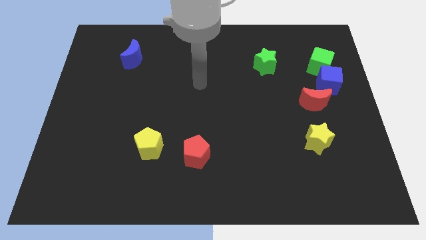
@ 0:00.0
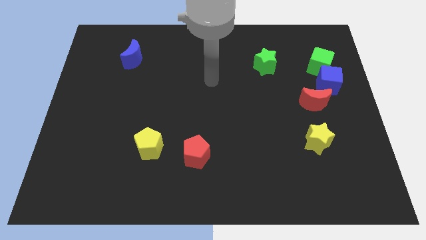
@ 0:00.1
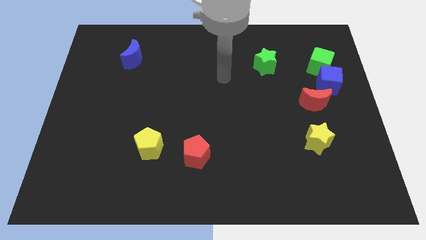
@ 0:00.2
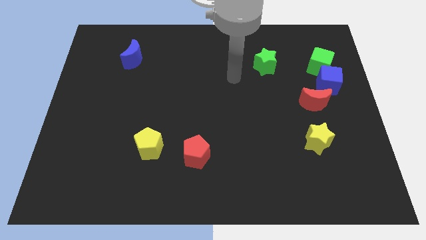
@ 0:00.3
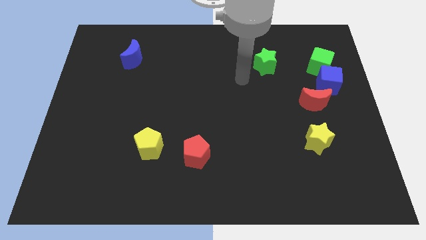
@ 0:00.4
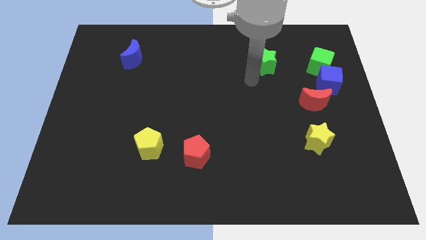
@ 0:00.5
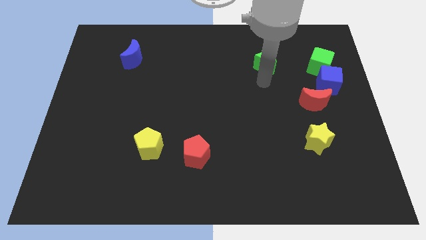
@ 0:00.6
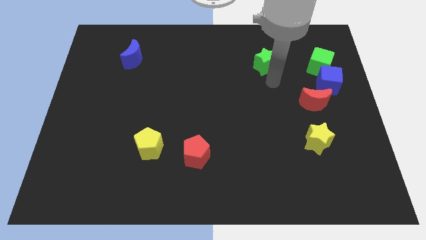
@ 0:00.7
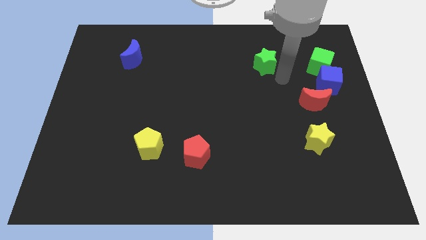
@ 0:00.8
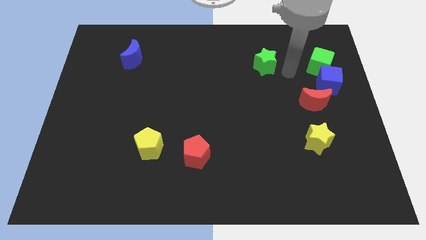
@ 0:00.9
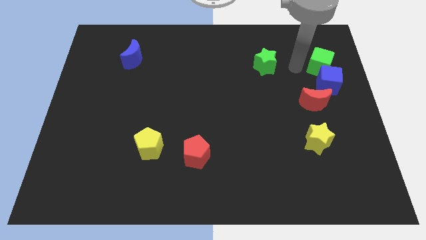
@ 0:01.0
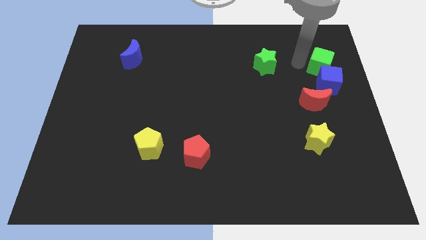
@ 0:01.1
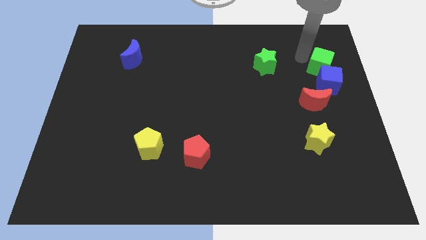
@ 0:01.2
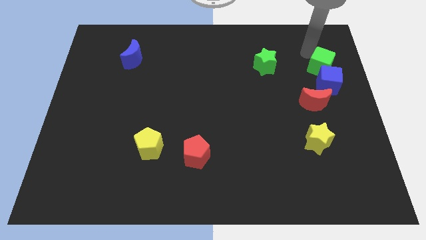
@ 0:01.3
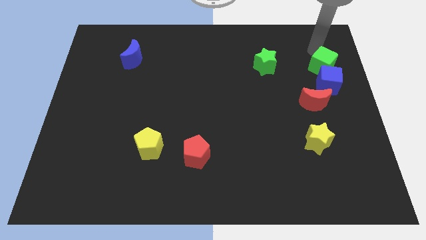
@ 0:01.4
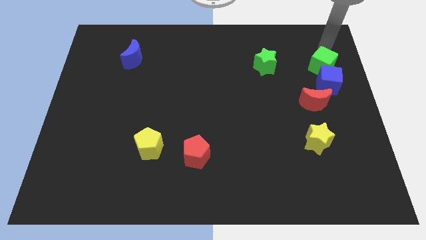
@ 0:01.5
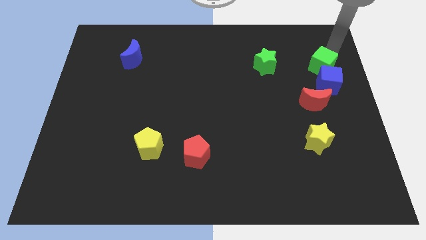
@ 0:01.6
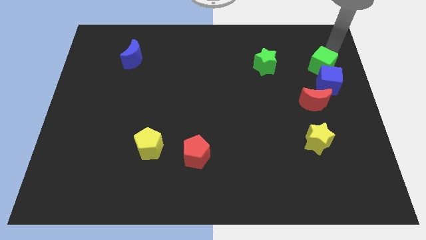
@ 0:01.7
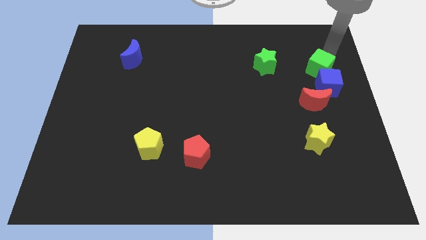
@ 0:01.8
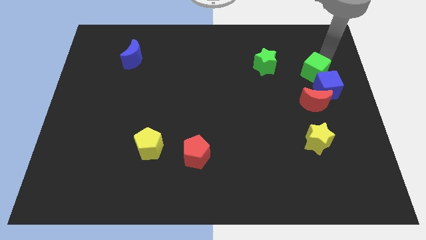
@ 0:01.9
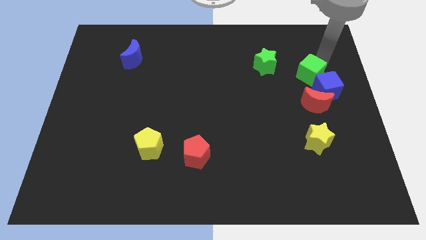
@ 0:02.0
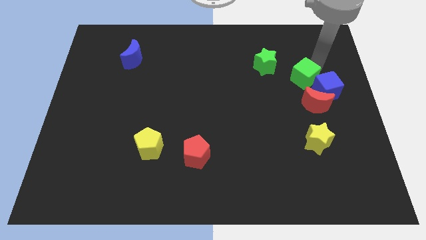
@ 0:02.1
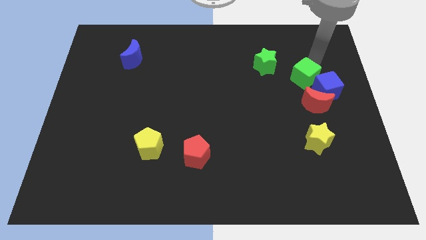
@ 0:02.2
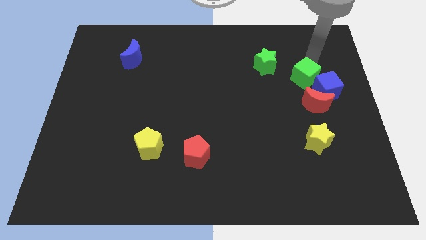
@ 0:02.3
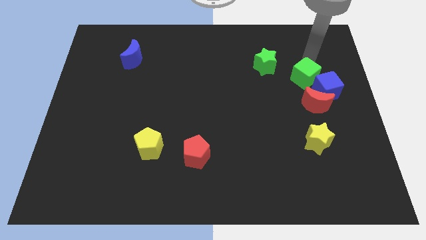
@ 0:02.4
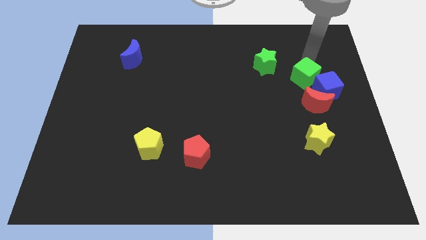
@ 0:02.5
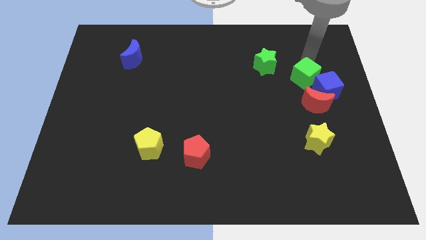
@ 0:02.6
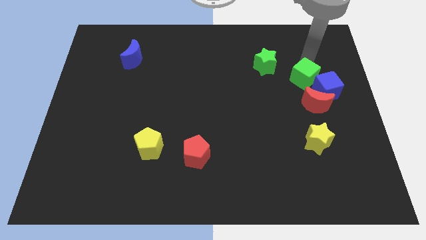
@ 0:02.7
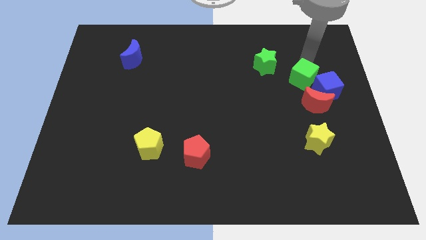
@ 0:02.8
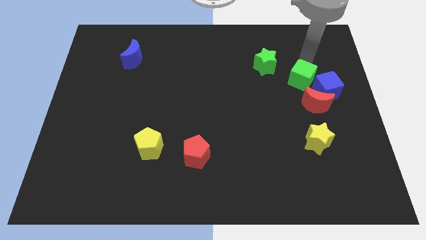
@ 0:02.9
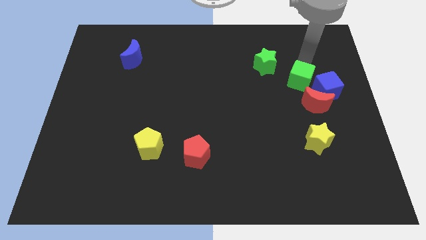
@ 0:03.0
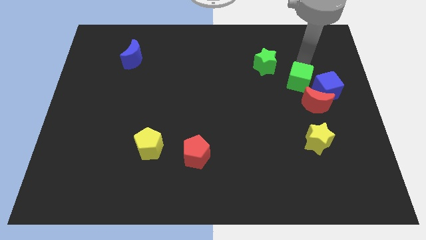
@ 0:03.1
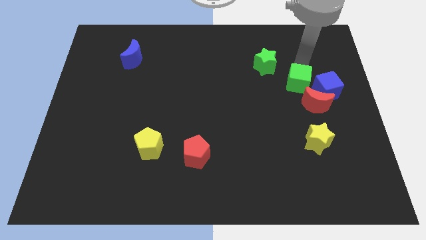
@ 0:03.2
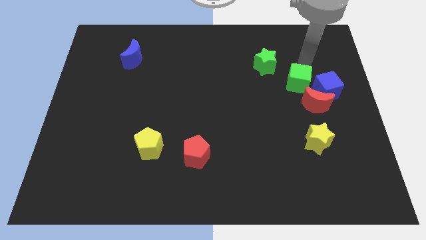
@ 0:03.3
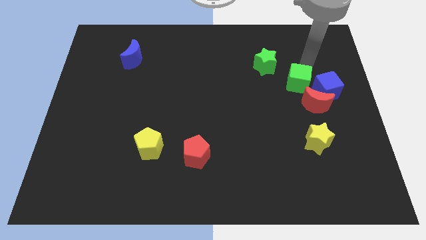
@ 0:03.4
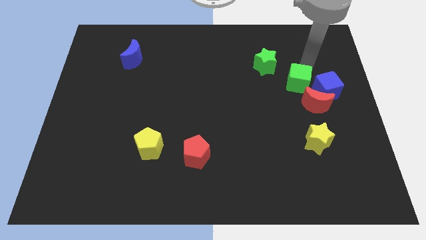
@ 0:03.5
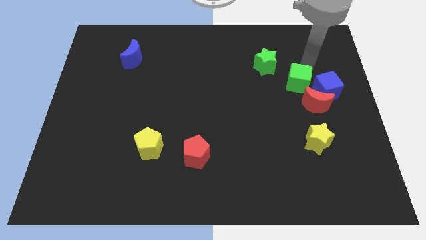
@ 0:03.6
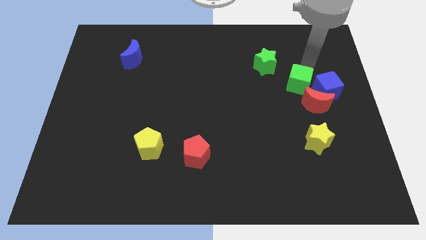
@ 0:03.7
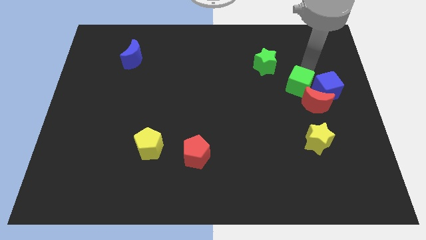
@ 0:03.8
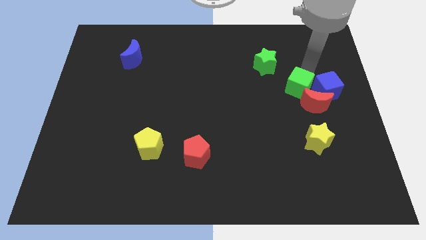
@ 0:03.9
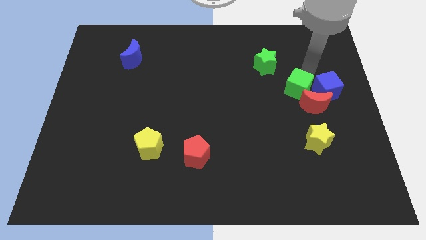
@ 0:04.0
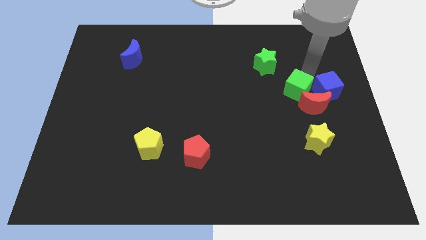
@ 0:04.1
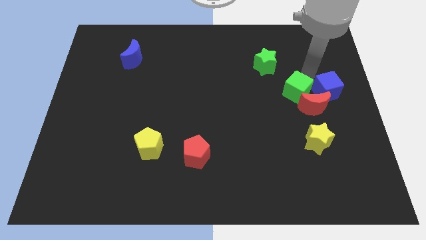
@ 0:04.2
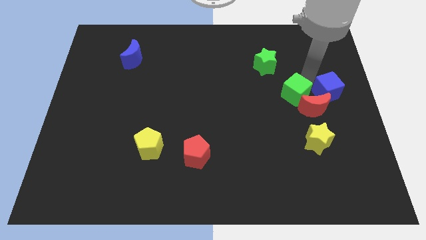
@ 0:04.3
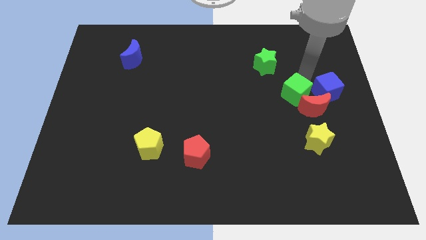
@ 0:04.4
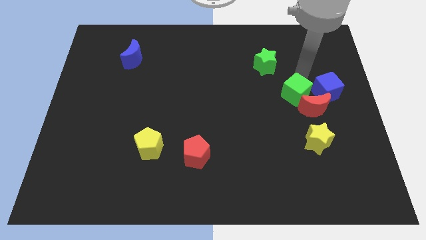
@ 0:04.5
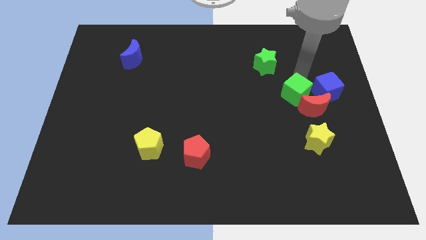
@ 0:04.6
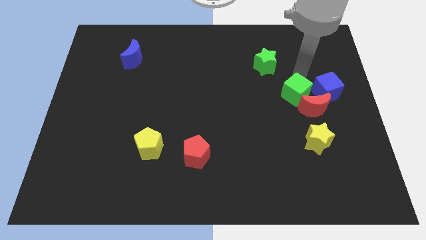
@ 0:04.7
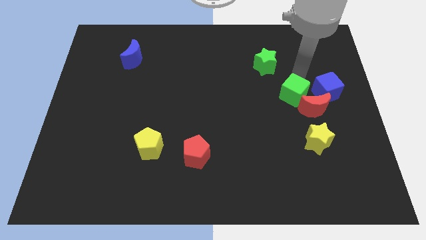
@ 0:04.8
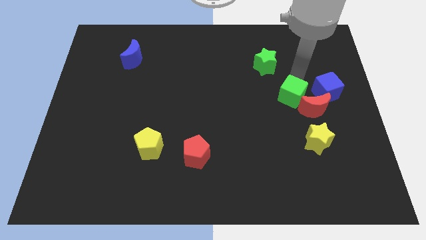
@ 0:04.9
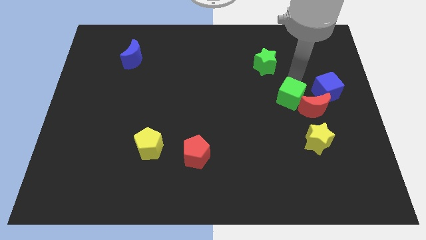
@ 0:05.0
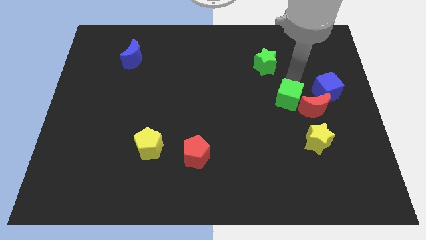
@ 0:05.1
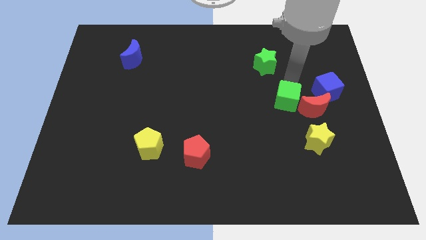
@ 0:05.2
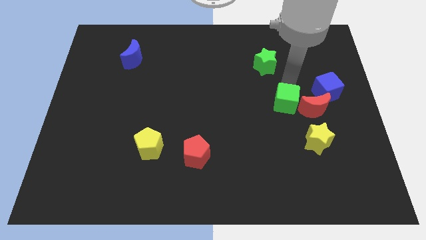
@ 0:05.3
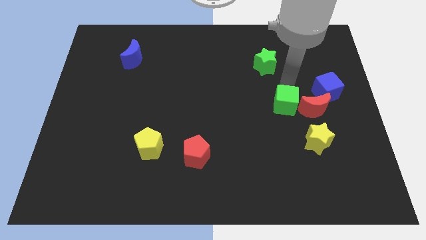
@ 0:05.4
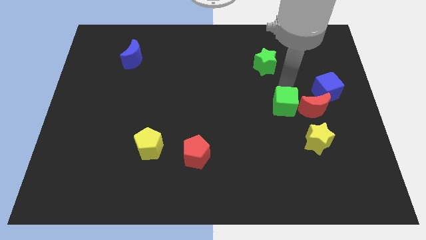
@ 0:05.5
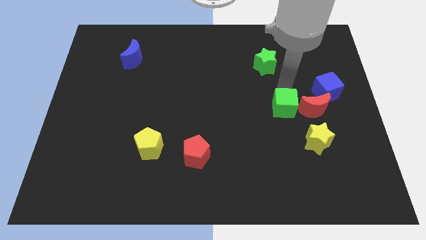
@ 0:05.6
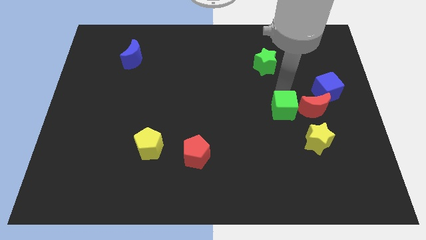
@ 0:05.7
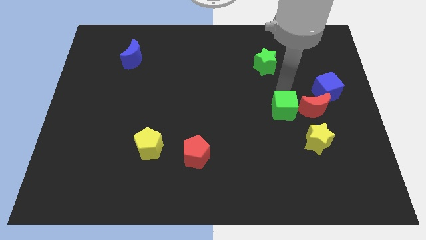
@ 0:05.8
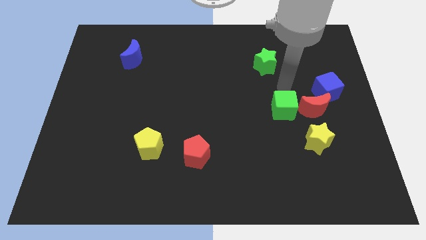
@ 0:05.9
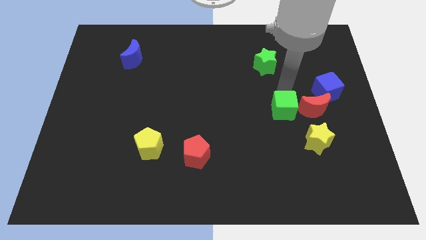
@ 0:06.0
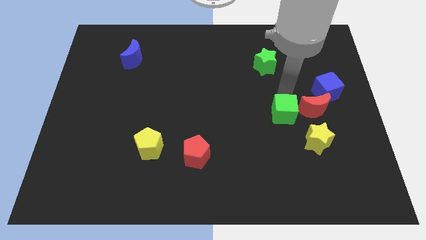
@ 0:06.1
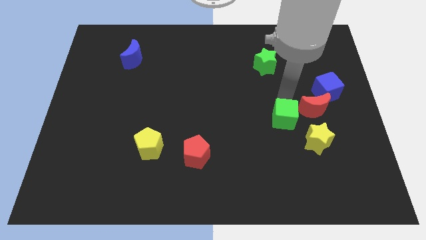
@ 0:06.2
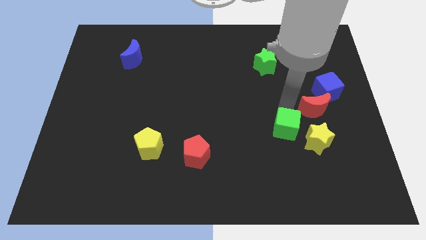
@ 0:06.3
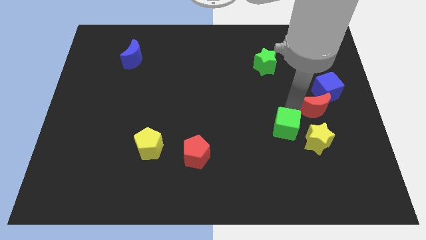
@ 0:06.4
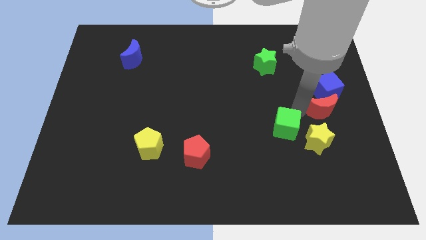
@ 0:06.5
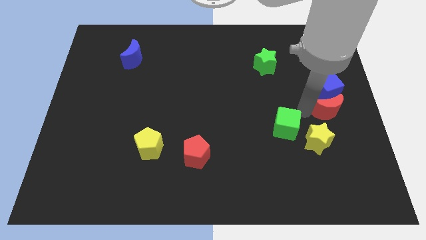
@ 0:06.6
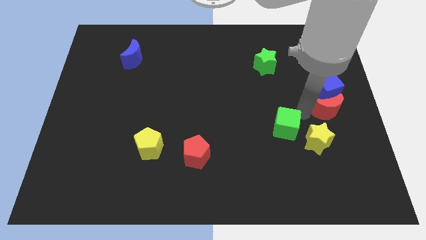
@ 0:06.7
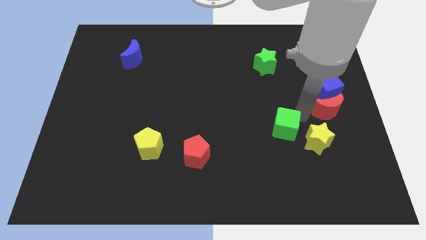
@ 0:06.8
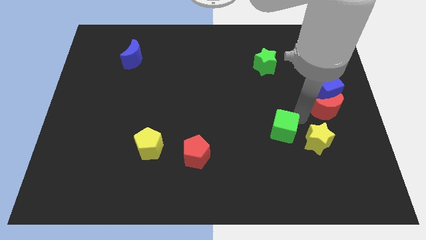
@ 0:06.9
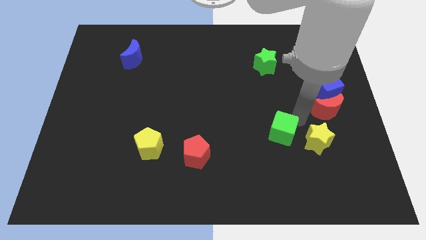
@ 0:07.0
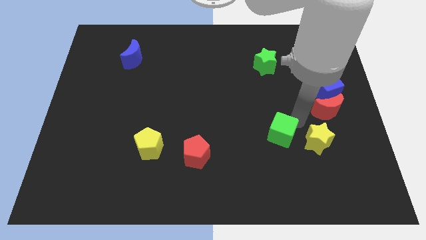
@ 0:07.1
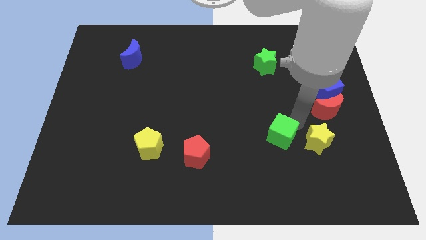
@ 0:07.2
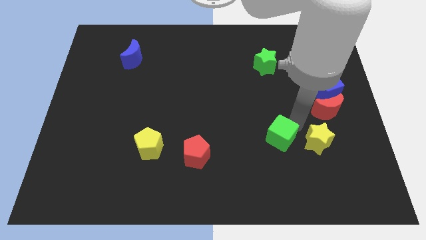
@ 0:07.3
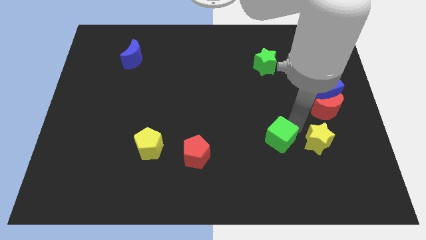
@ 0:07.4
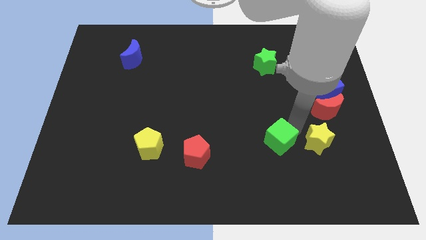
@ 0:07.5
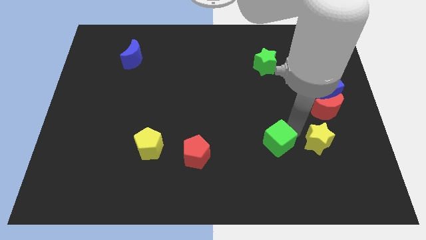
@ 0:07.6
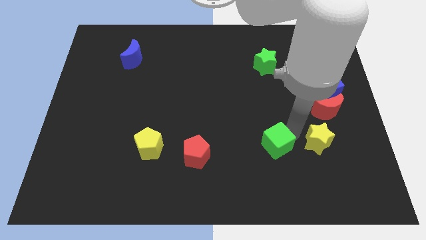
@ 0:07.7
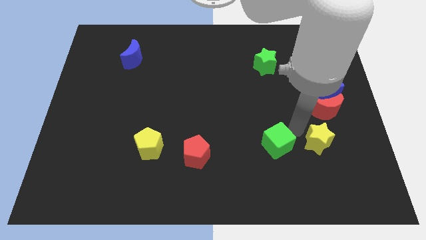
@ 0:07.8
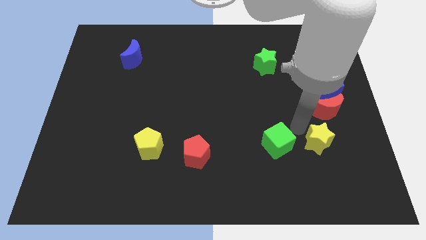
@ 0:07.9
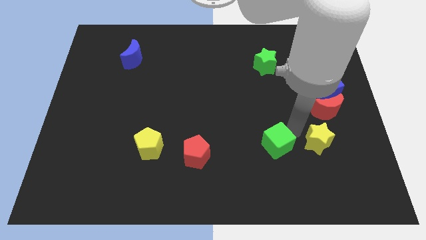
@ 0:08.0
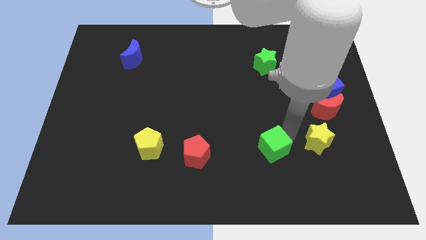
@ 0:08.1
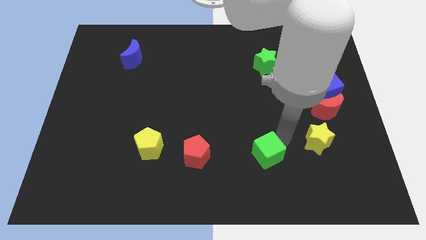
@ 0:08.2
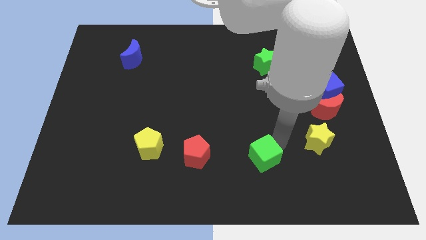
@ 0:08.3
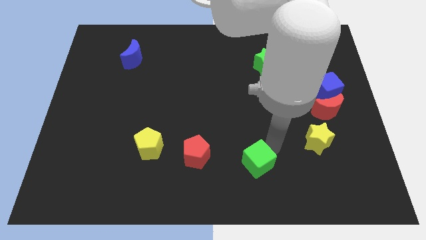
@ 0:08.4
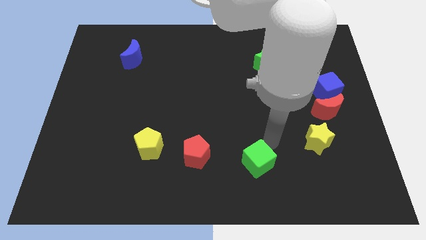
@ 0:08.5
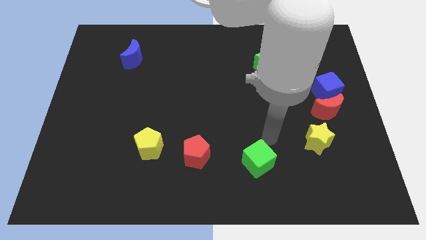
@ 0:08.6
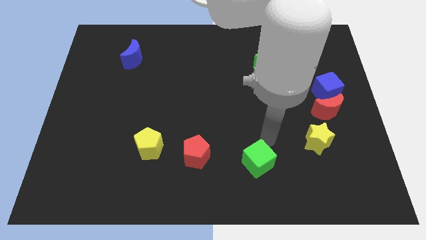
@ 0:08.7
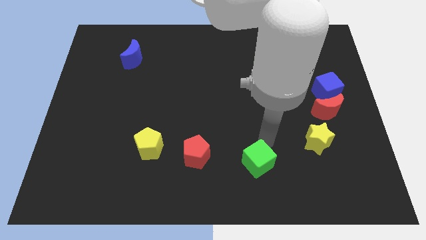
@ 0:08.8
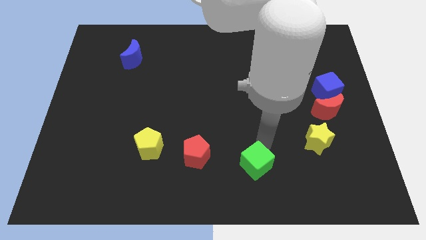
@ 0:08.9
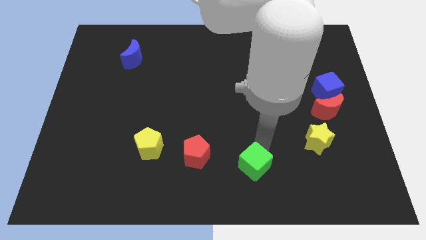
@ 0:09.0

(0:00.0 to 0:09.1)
push the green cube to the bottom side
